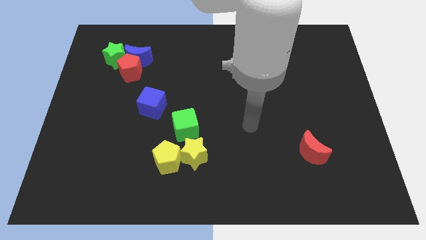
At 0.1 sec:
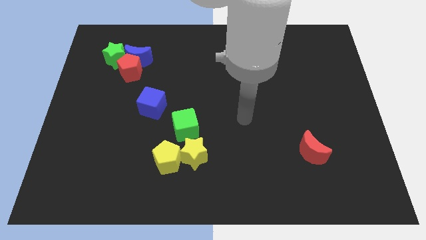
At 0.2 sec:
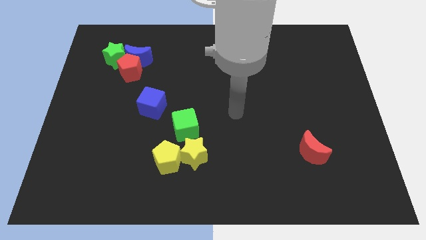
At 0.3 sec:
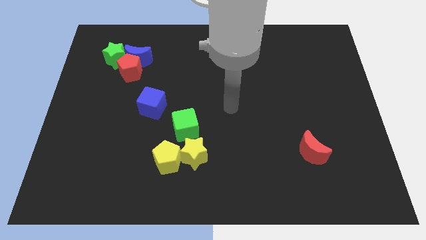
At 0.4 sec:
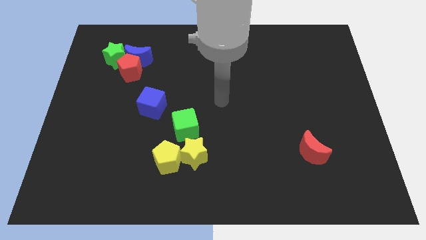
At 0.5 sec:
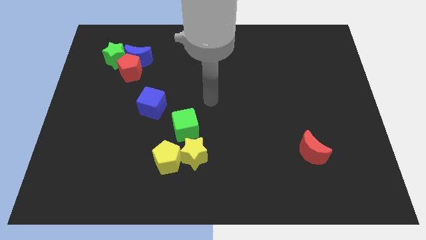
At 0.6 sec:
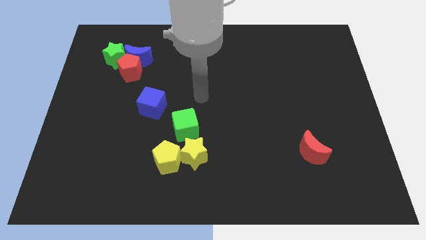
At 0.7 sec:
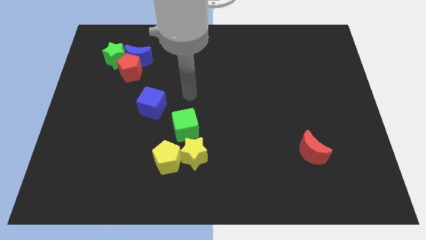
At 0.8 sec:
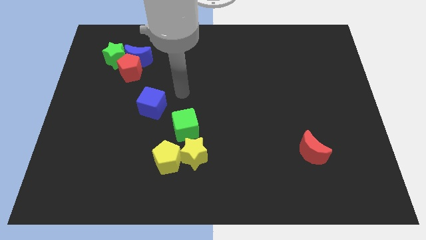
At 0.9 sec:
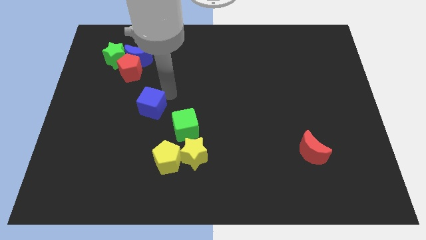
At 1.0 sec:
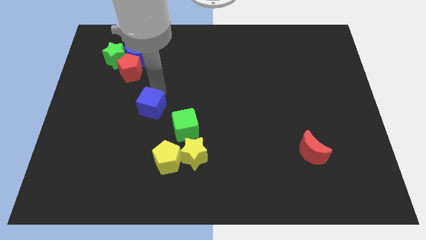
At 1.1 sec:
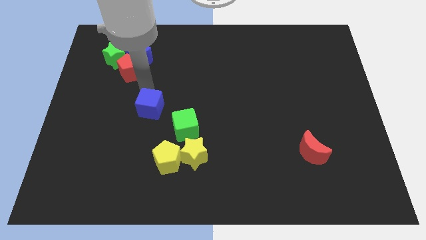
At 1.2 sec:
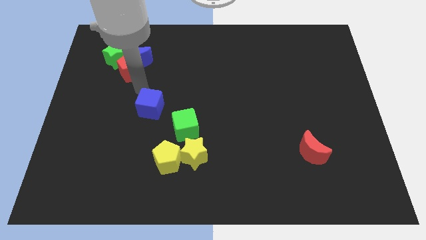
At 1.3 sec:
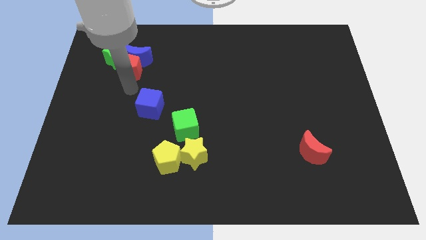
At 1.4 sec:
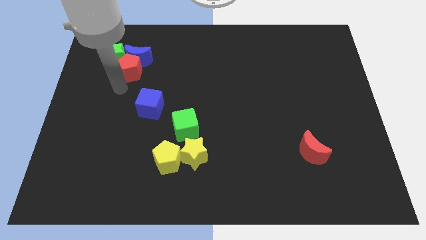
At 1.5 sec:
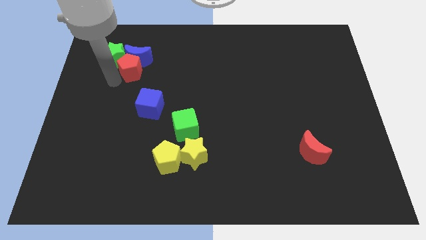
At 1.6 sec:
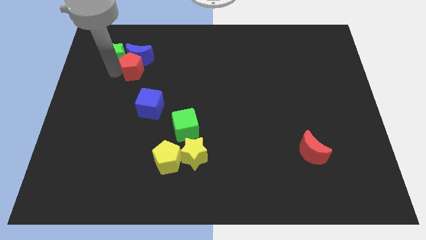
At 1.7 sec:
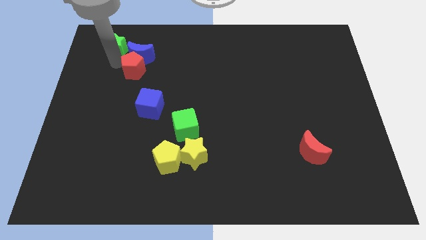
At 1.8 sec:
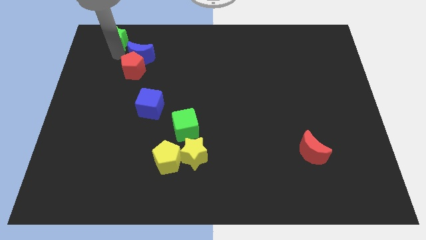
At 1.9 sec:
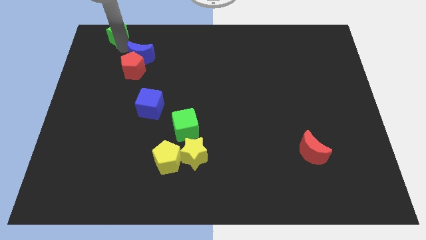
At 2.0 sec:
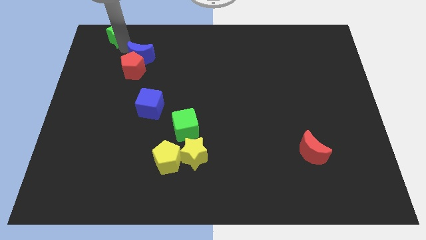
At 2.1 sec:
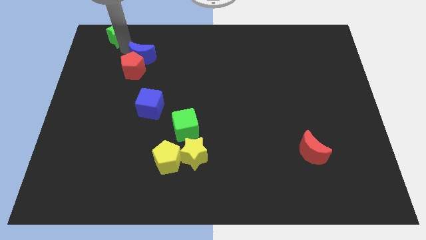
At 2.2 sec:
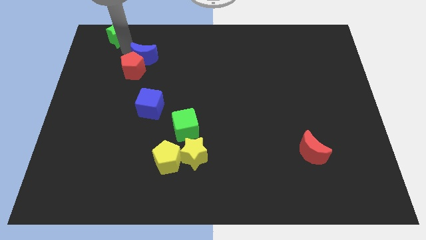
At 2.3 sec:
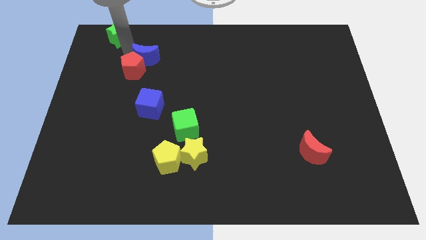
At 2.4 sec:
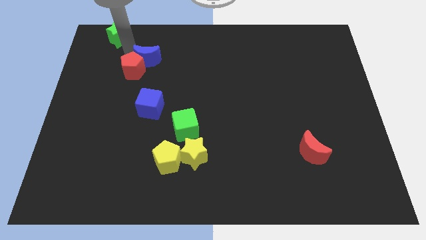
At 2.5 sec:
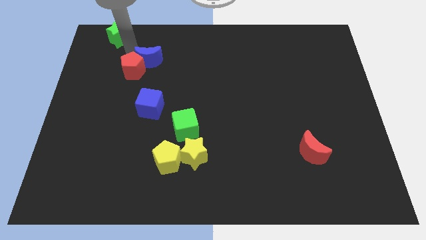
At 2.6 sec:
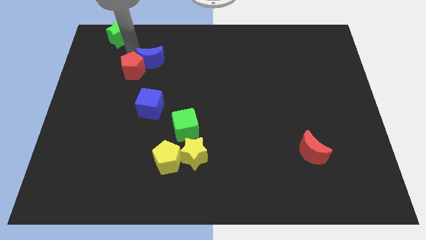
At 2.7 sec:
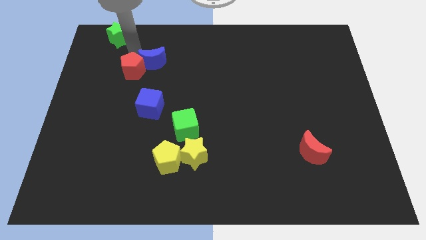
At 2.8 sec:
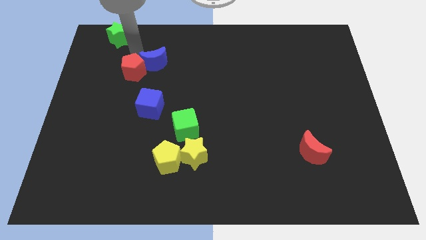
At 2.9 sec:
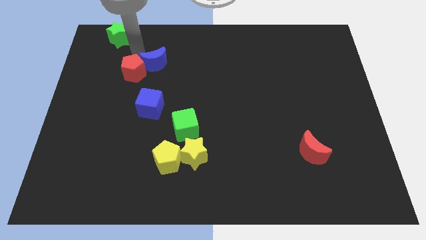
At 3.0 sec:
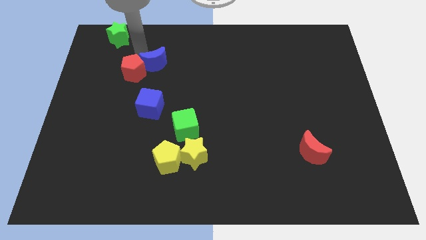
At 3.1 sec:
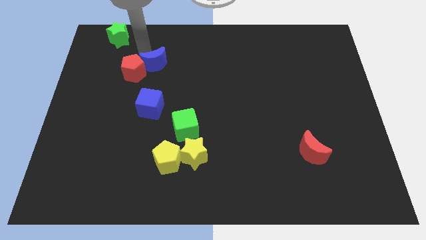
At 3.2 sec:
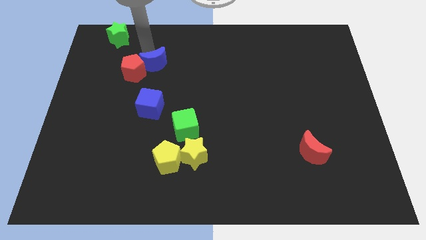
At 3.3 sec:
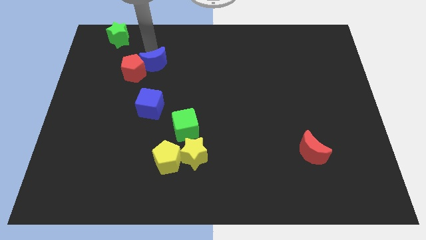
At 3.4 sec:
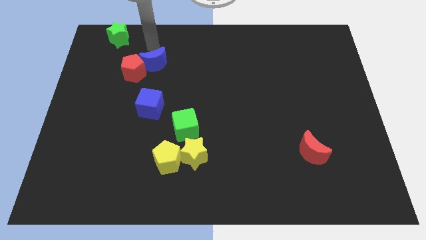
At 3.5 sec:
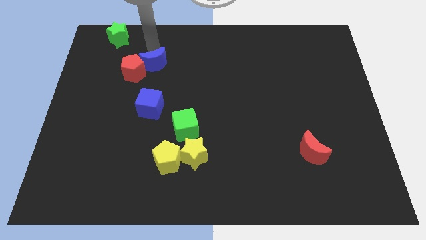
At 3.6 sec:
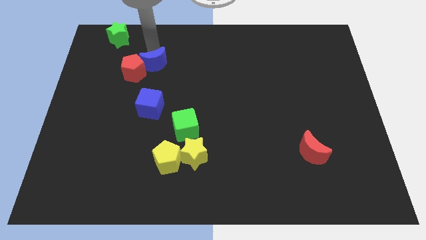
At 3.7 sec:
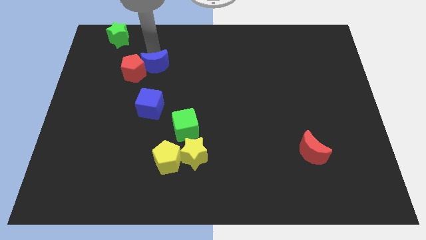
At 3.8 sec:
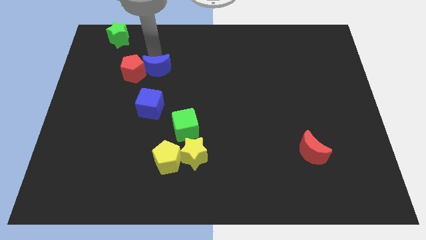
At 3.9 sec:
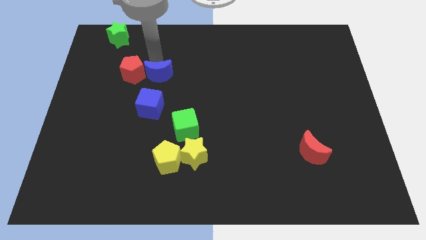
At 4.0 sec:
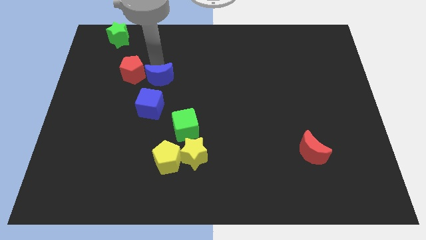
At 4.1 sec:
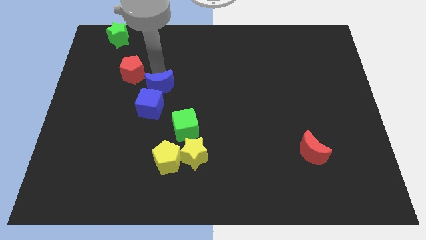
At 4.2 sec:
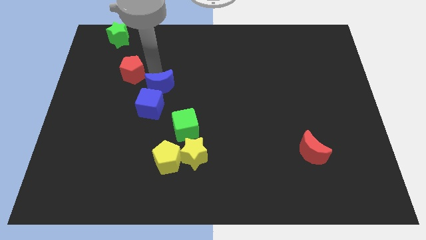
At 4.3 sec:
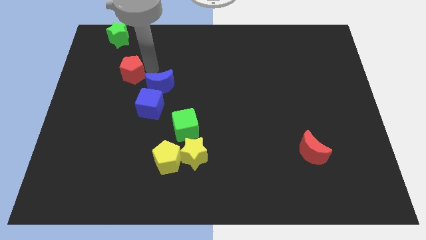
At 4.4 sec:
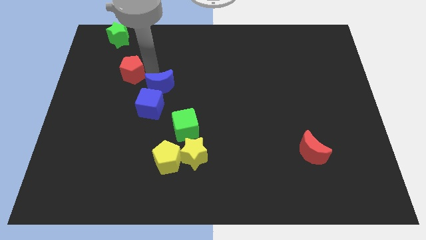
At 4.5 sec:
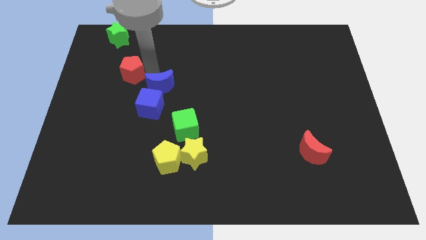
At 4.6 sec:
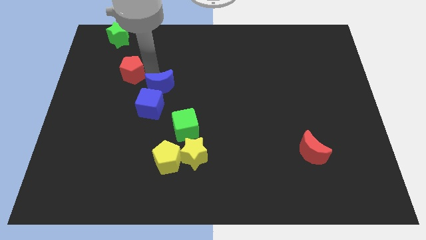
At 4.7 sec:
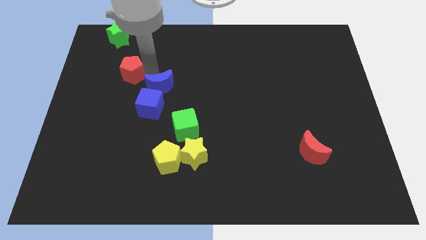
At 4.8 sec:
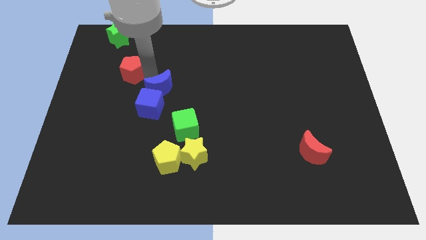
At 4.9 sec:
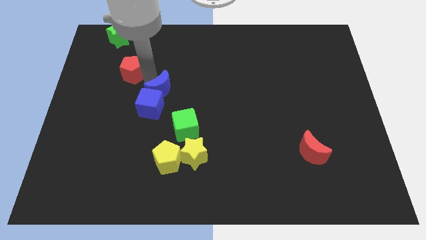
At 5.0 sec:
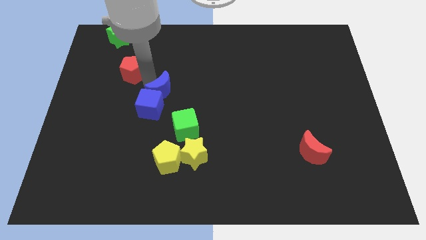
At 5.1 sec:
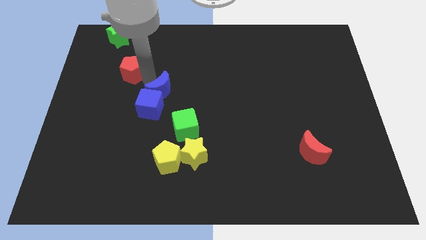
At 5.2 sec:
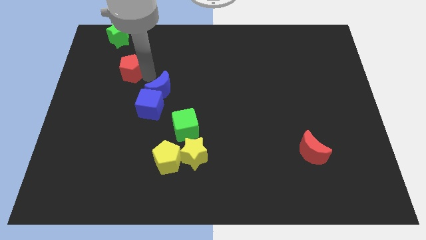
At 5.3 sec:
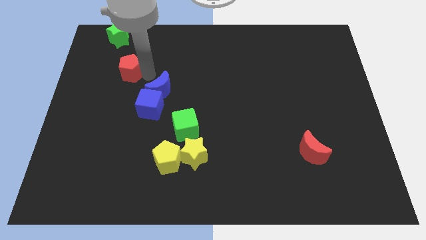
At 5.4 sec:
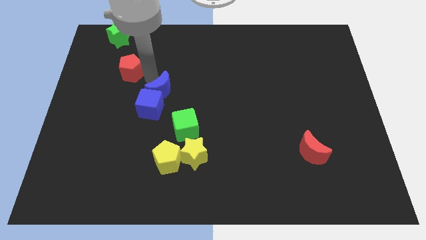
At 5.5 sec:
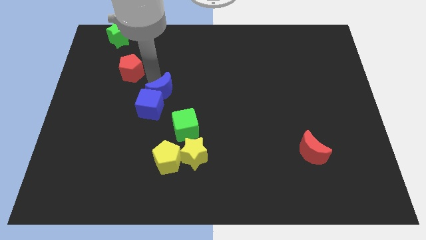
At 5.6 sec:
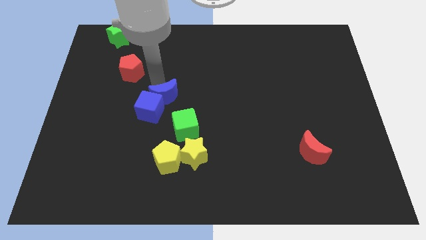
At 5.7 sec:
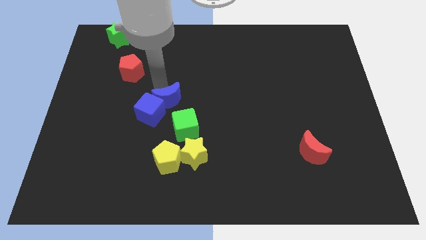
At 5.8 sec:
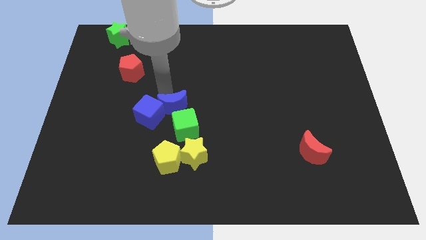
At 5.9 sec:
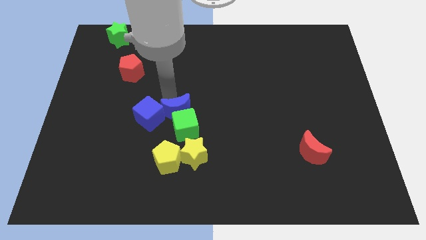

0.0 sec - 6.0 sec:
put the blue moon next to the green cube

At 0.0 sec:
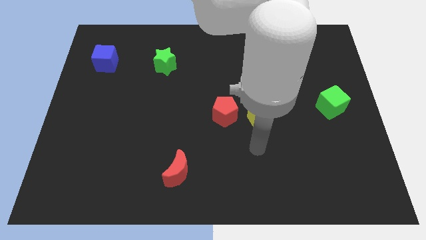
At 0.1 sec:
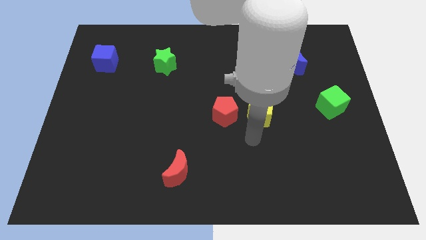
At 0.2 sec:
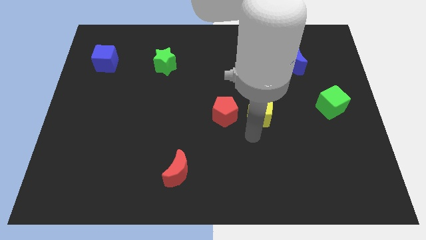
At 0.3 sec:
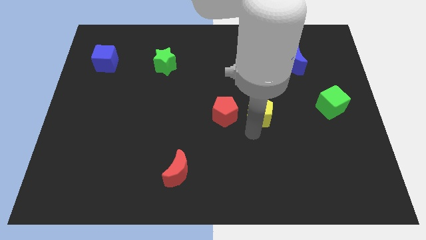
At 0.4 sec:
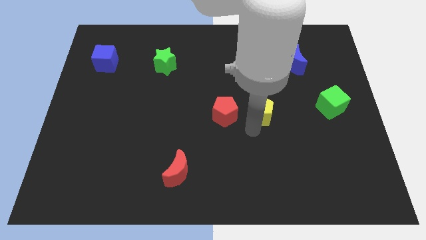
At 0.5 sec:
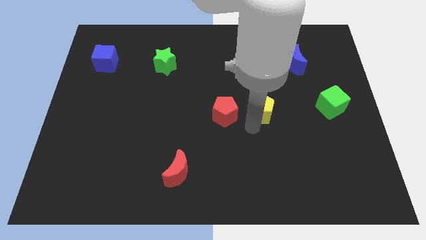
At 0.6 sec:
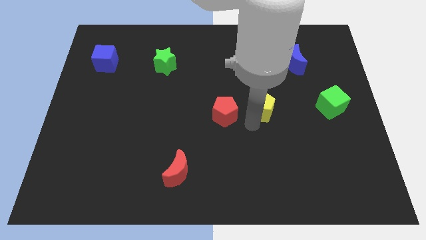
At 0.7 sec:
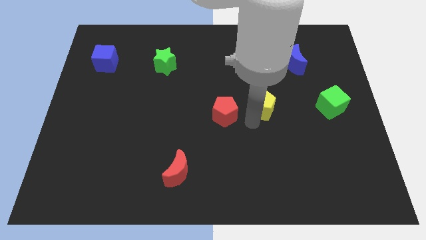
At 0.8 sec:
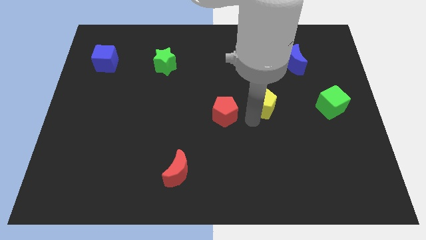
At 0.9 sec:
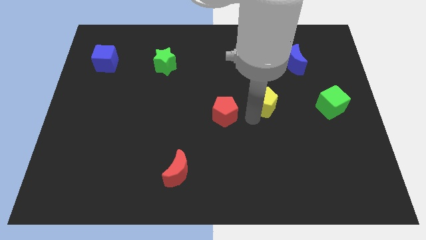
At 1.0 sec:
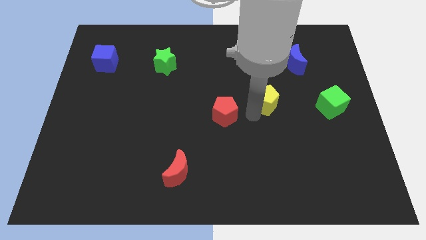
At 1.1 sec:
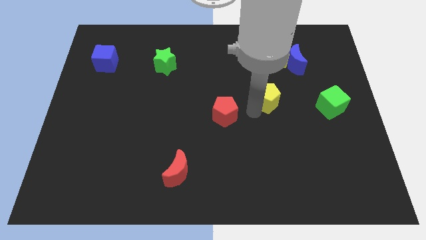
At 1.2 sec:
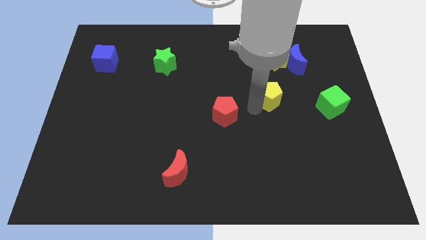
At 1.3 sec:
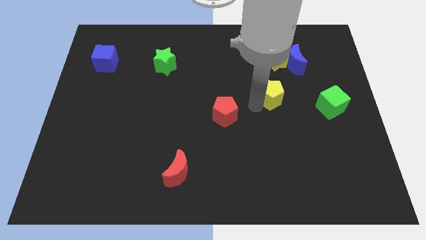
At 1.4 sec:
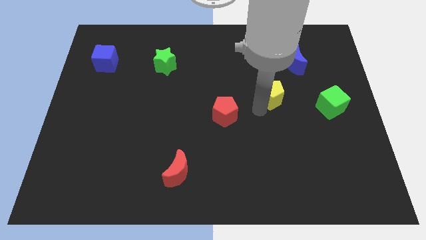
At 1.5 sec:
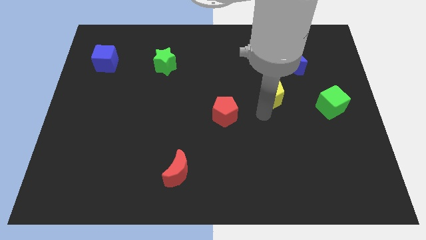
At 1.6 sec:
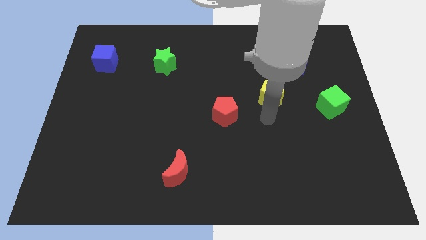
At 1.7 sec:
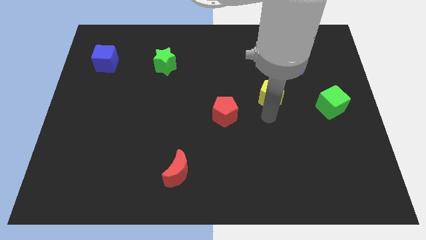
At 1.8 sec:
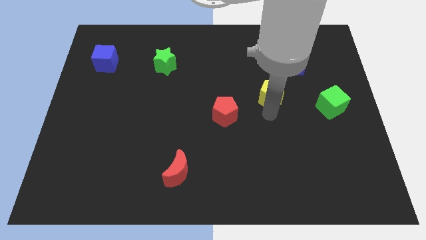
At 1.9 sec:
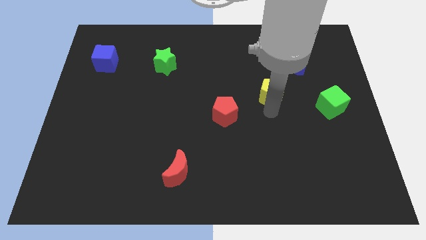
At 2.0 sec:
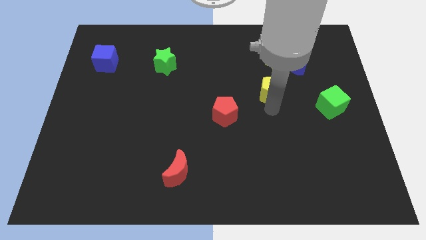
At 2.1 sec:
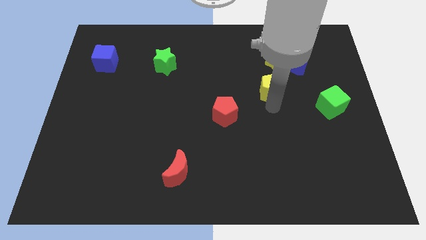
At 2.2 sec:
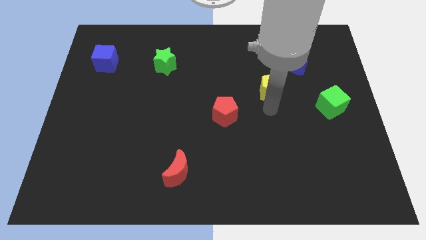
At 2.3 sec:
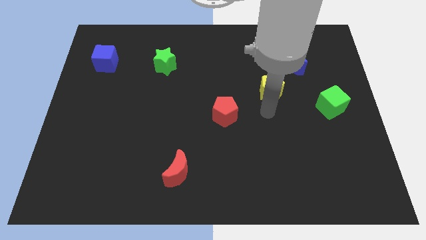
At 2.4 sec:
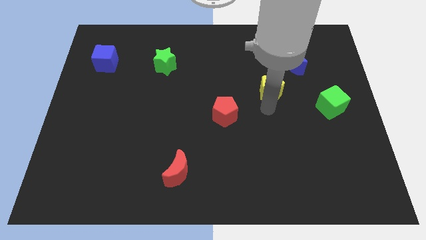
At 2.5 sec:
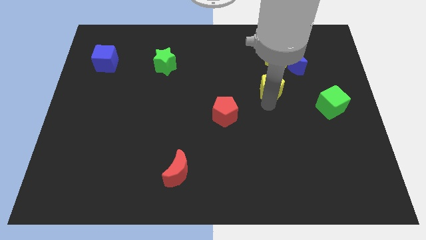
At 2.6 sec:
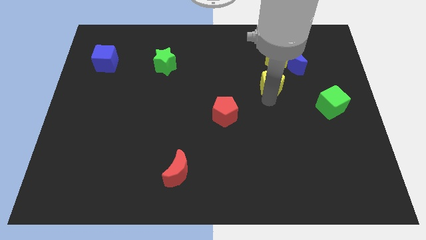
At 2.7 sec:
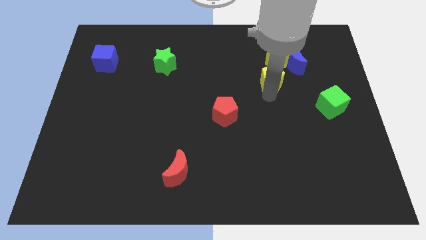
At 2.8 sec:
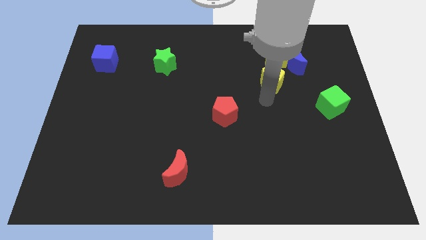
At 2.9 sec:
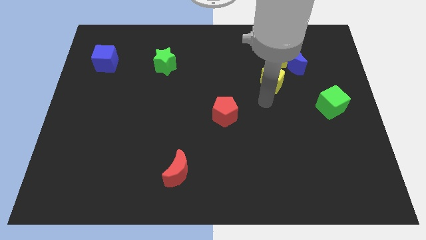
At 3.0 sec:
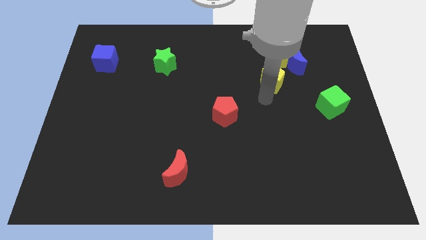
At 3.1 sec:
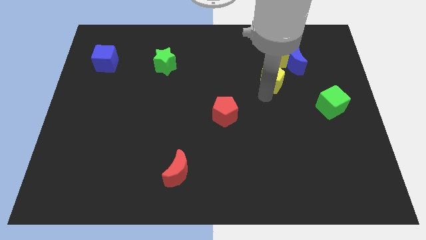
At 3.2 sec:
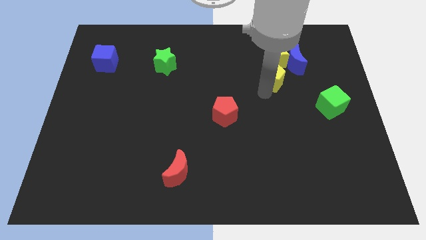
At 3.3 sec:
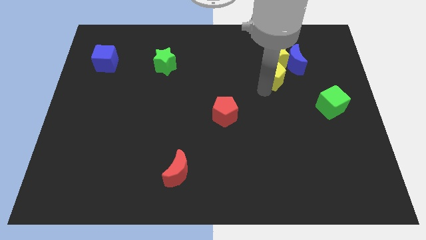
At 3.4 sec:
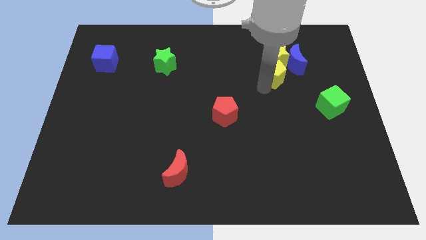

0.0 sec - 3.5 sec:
slide the yellow pentagon to the yellow star
